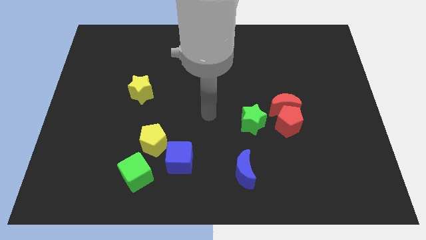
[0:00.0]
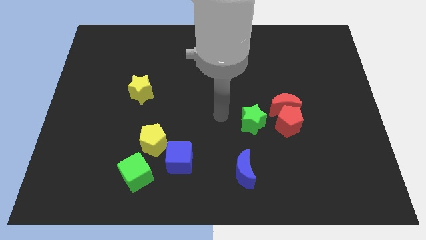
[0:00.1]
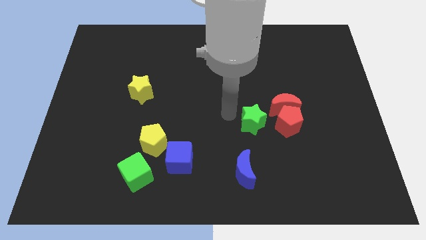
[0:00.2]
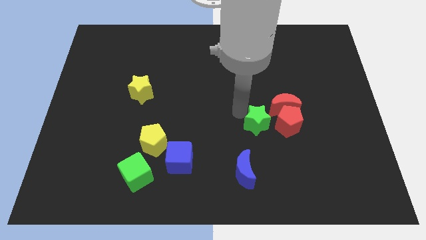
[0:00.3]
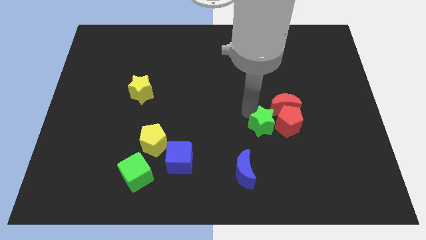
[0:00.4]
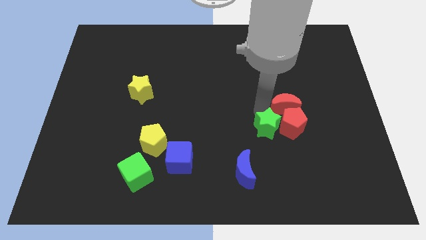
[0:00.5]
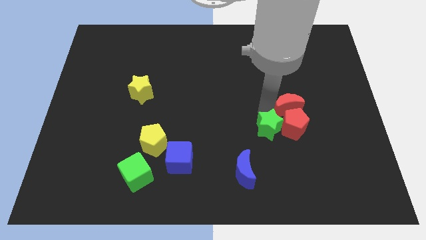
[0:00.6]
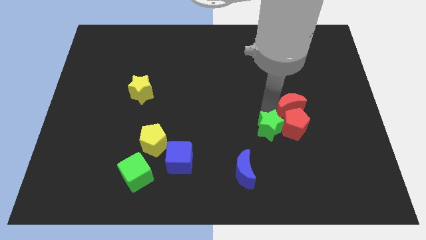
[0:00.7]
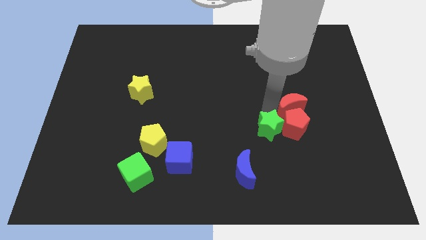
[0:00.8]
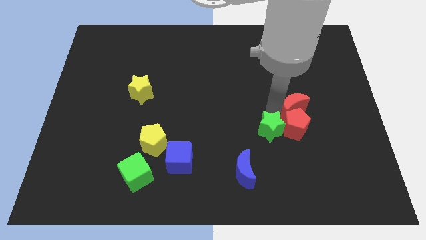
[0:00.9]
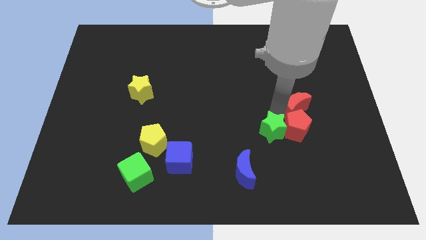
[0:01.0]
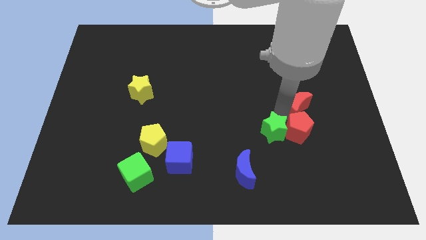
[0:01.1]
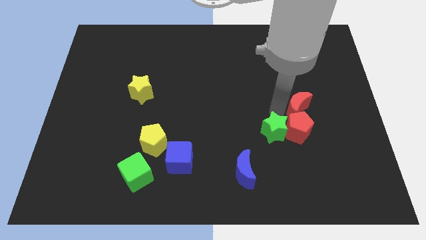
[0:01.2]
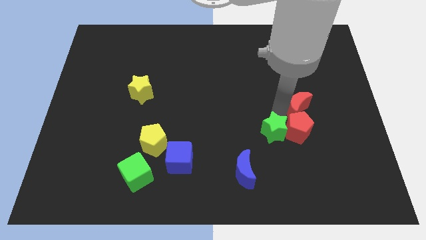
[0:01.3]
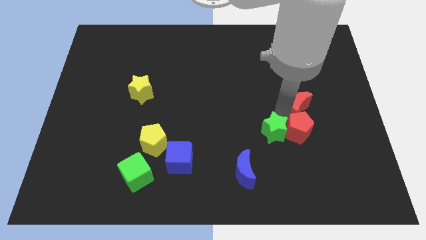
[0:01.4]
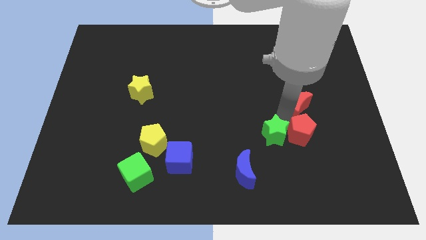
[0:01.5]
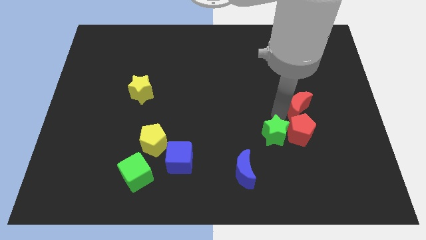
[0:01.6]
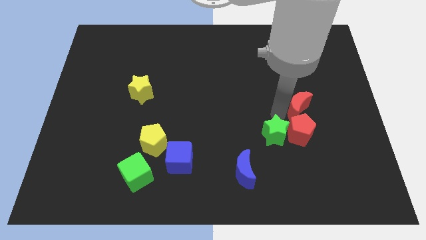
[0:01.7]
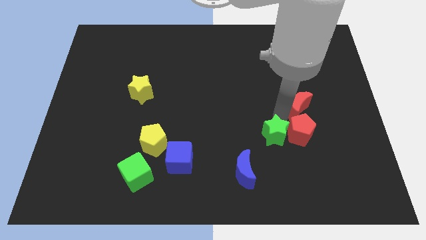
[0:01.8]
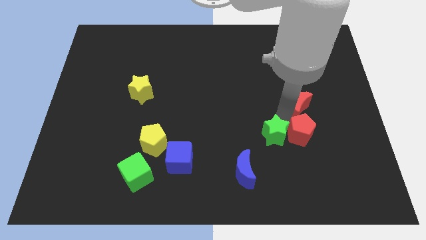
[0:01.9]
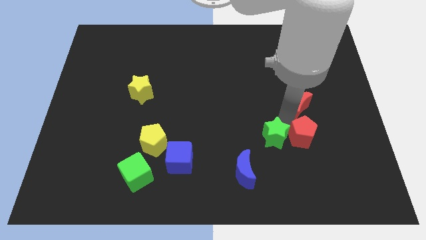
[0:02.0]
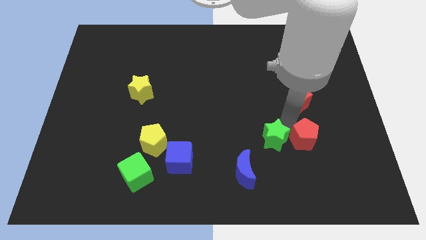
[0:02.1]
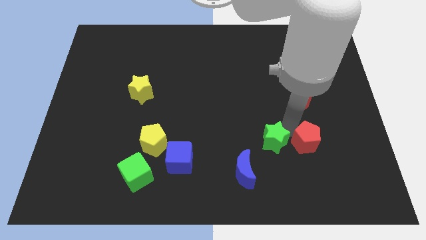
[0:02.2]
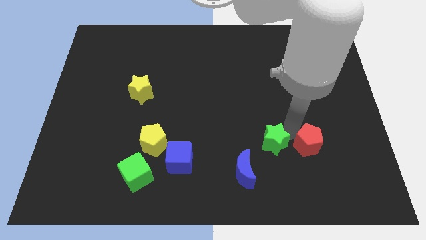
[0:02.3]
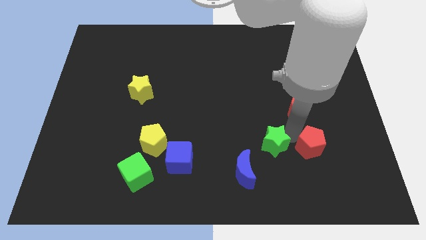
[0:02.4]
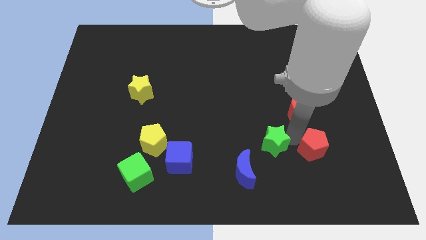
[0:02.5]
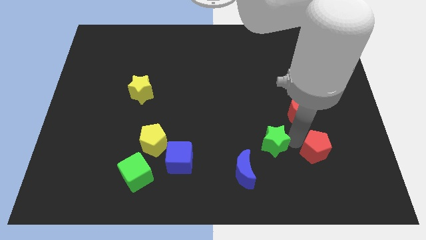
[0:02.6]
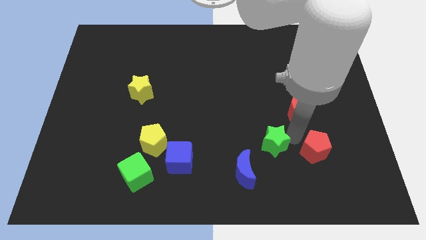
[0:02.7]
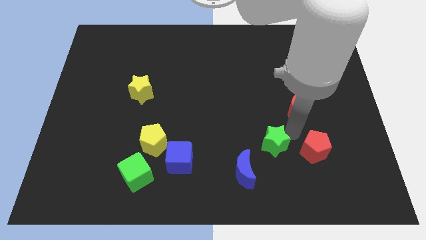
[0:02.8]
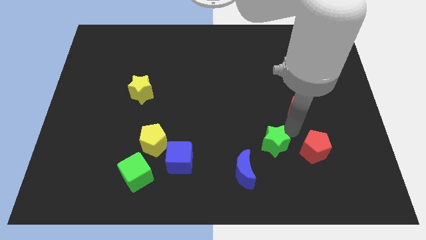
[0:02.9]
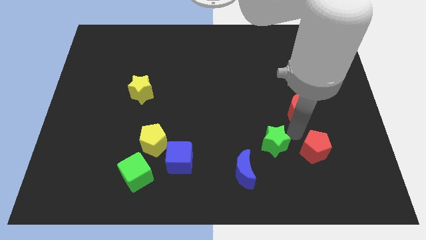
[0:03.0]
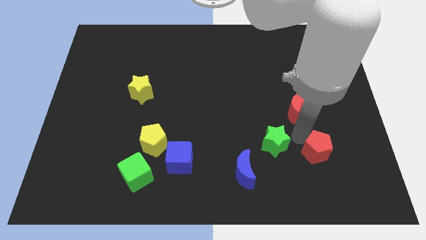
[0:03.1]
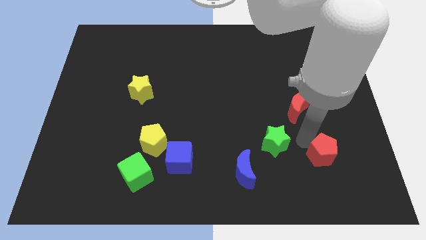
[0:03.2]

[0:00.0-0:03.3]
move the red pentagon away from the red moon and green star

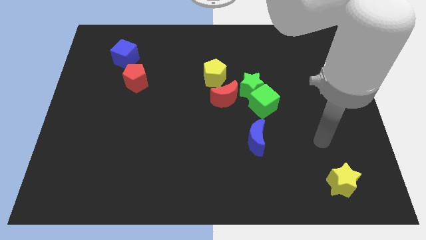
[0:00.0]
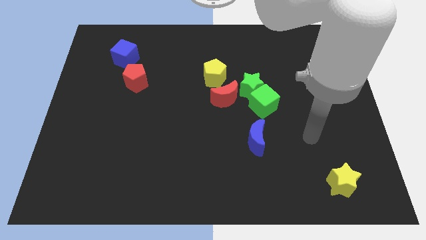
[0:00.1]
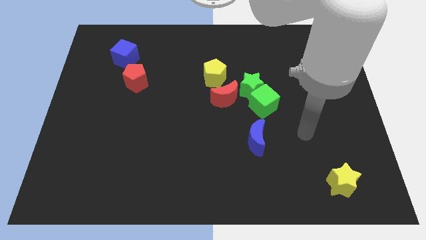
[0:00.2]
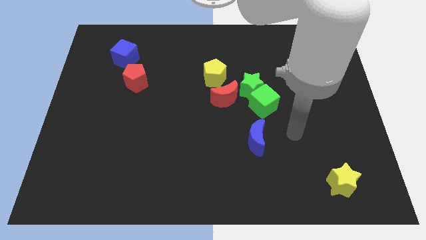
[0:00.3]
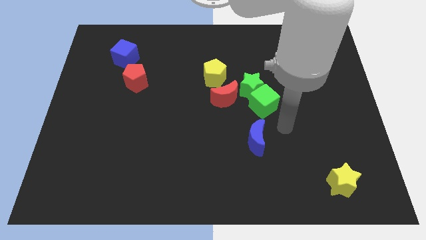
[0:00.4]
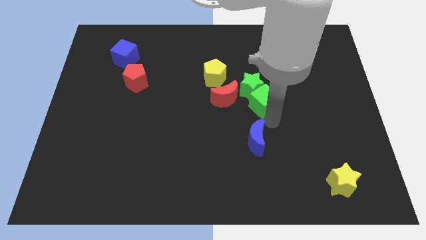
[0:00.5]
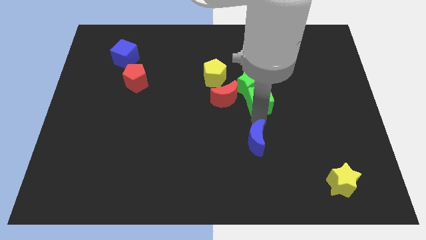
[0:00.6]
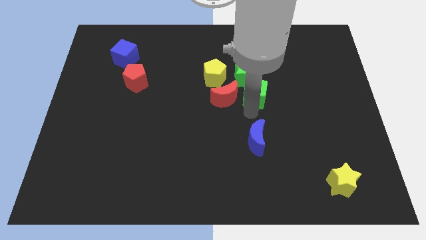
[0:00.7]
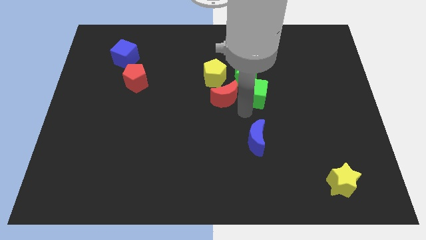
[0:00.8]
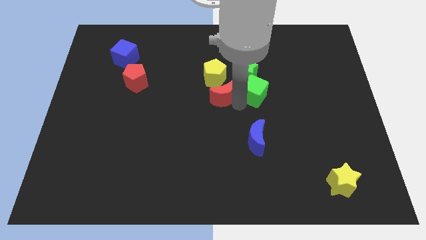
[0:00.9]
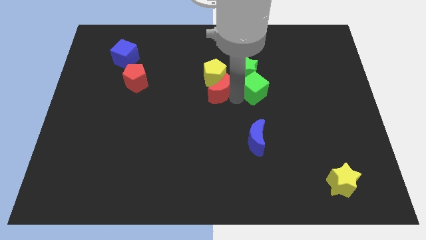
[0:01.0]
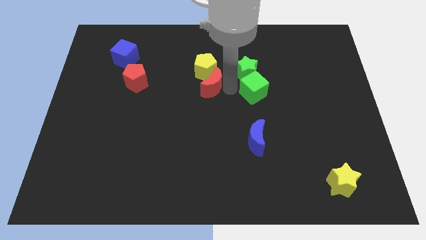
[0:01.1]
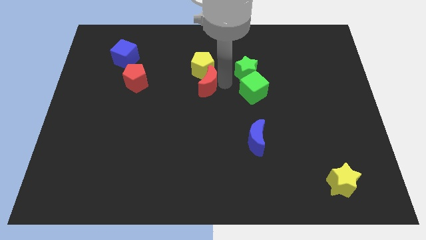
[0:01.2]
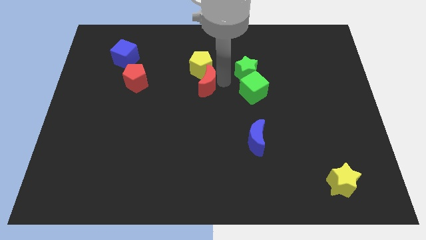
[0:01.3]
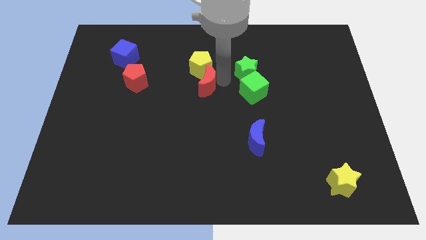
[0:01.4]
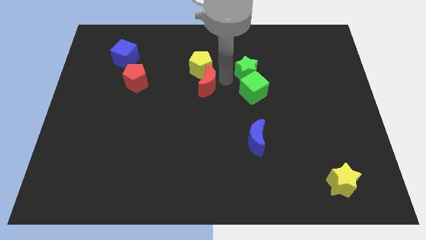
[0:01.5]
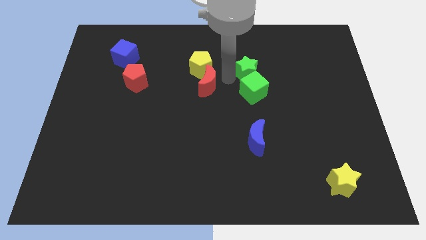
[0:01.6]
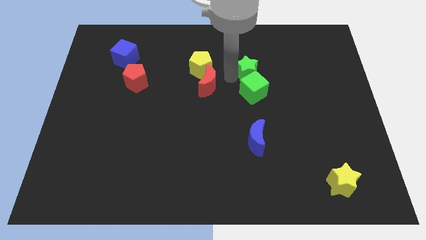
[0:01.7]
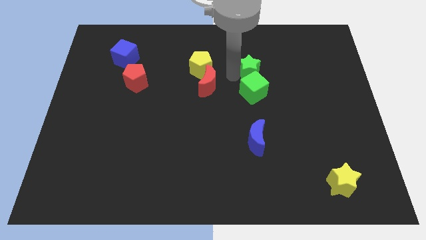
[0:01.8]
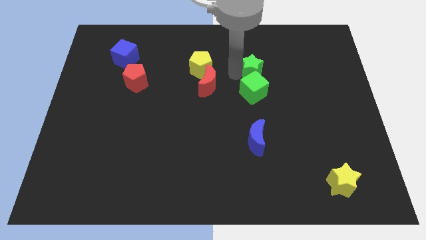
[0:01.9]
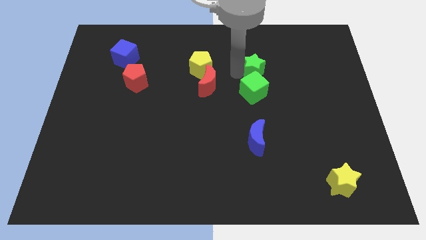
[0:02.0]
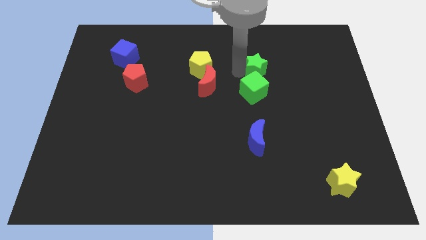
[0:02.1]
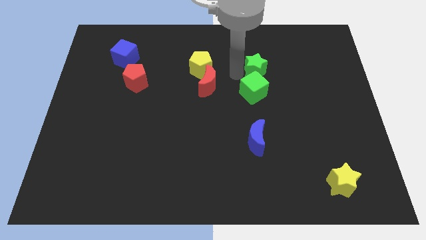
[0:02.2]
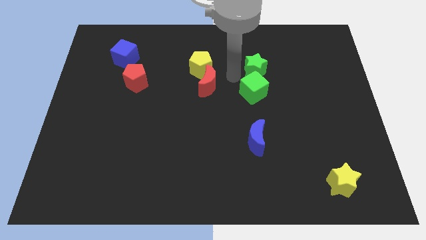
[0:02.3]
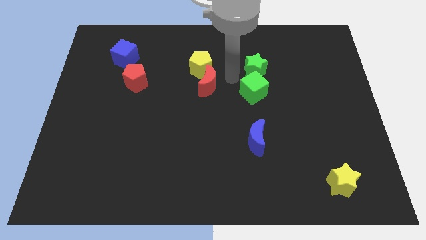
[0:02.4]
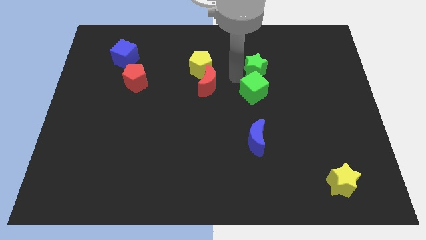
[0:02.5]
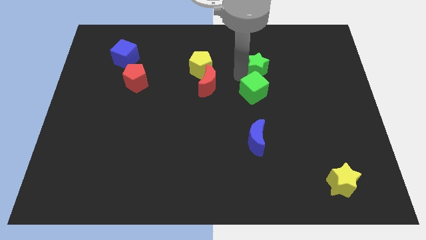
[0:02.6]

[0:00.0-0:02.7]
separate the green star from the green cube, red moon, and yellow pentagon

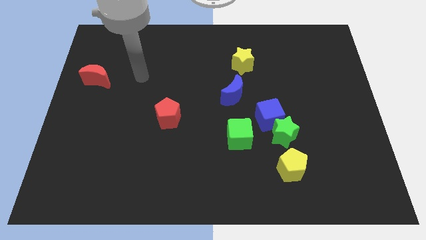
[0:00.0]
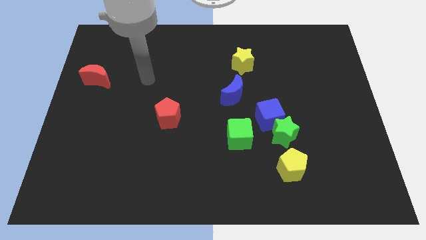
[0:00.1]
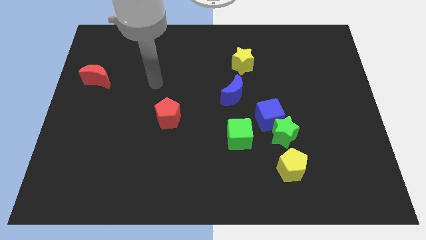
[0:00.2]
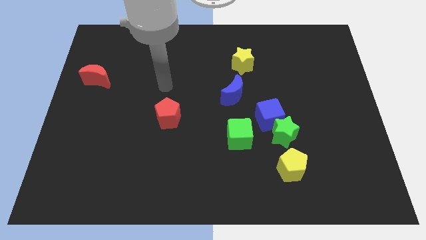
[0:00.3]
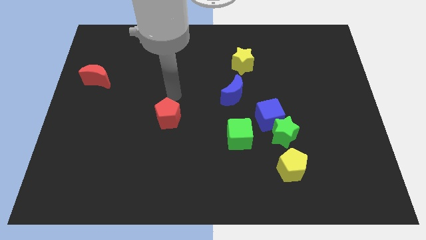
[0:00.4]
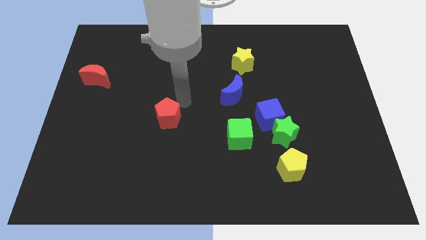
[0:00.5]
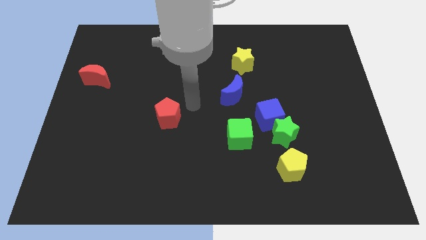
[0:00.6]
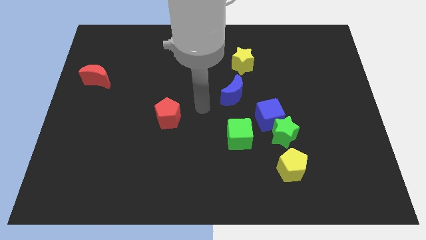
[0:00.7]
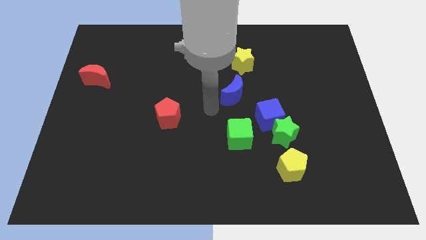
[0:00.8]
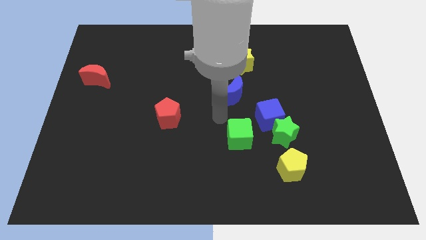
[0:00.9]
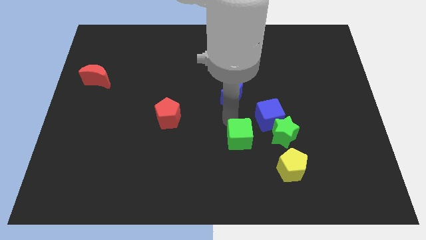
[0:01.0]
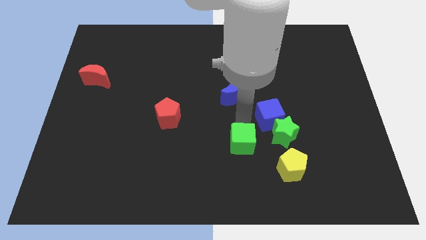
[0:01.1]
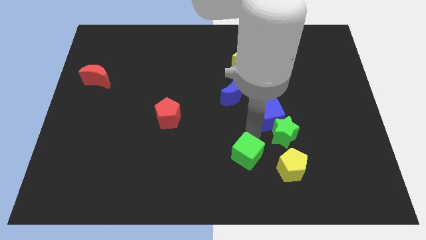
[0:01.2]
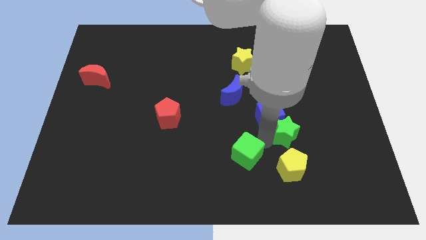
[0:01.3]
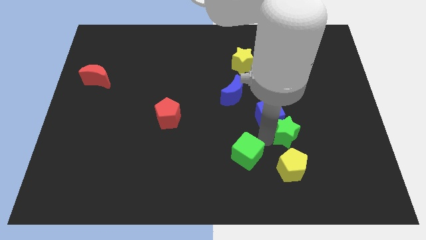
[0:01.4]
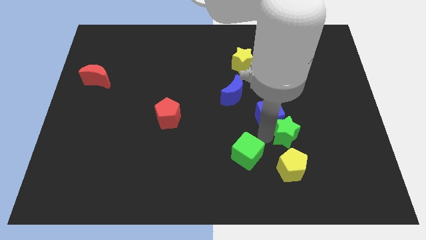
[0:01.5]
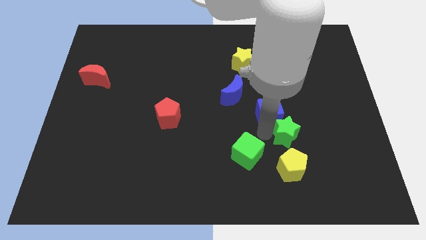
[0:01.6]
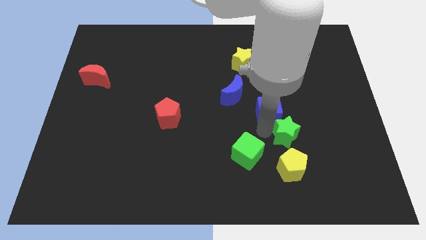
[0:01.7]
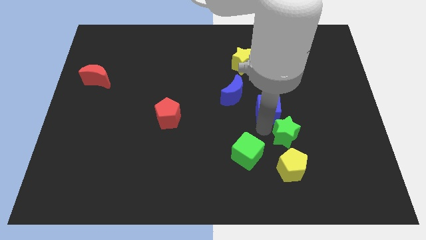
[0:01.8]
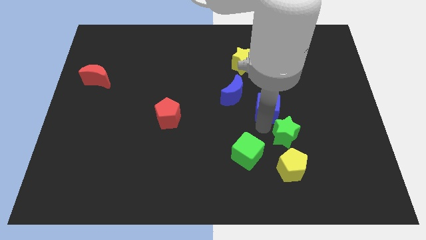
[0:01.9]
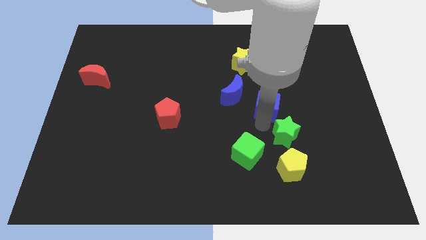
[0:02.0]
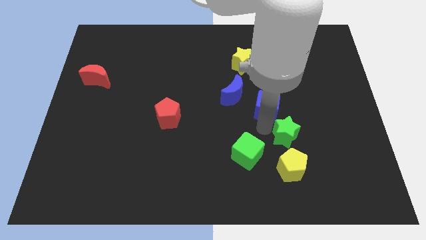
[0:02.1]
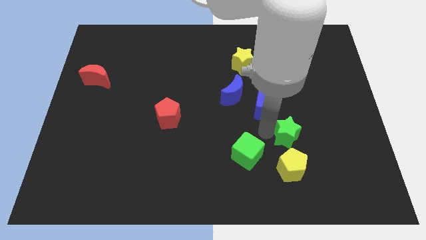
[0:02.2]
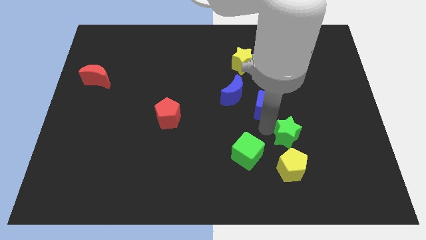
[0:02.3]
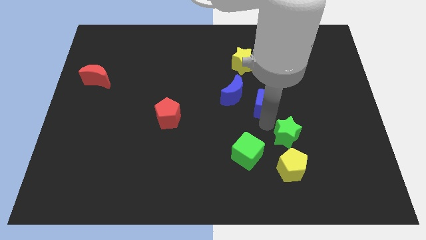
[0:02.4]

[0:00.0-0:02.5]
pull the blue cube apart from the green star and green cube

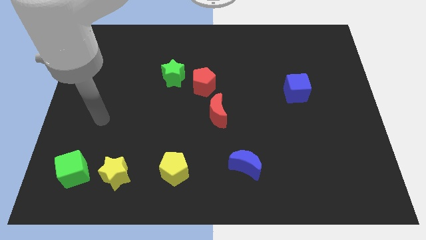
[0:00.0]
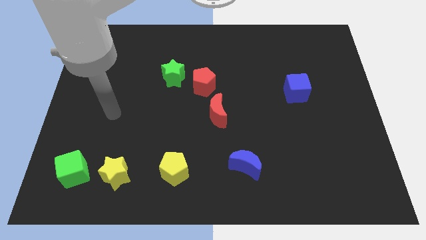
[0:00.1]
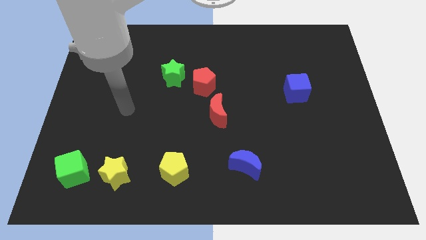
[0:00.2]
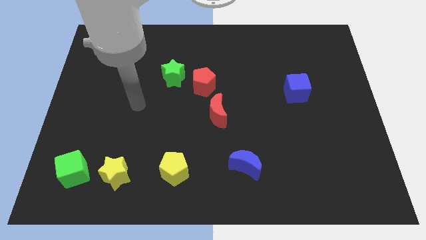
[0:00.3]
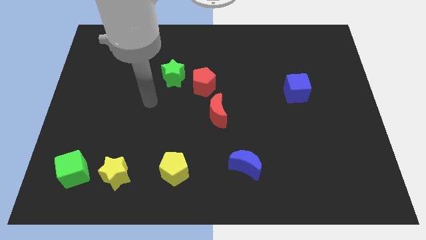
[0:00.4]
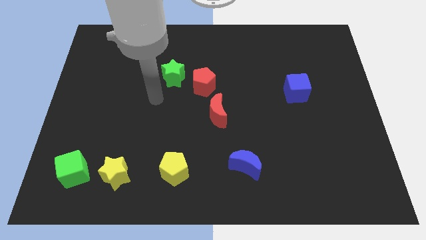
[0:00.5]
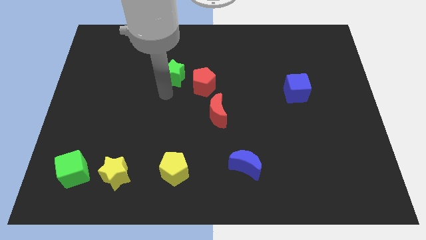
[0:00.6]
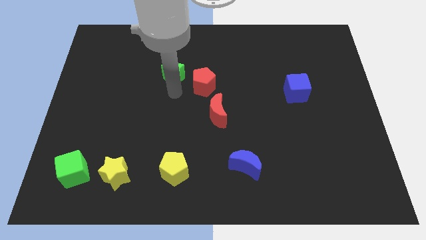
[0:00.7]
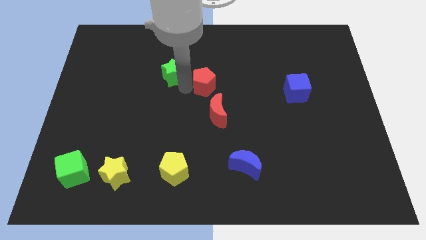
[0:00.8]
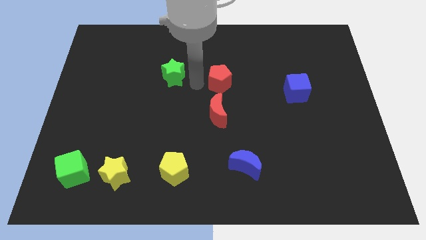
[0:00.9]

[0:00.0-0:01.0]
move the green star away from the red pentagon

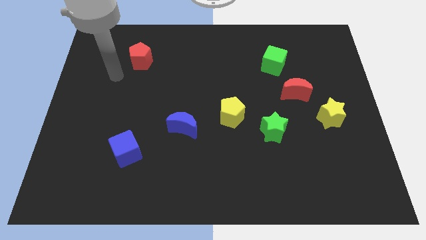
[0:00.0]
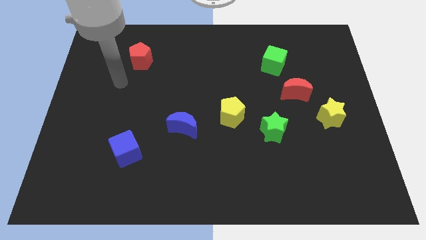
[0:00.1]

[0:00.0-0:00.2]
pull the green star apart from the yellow pentagon
